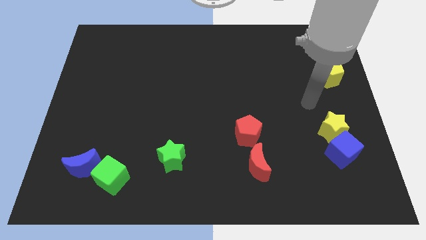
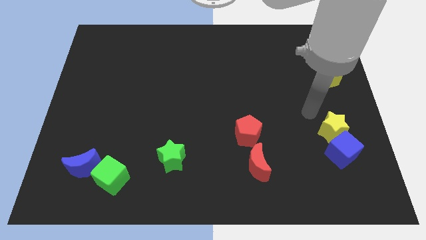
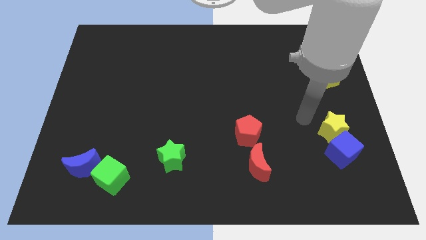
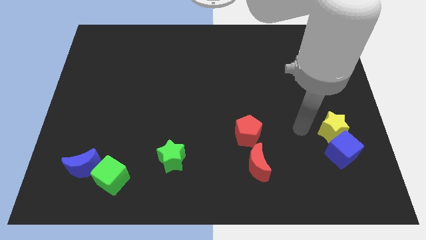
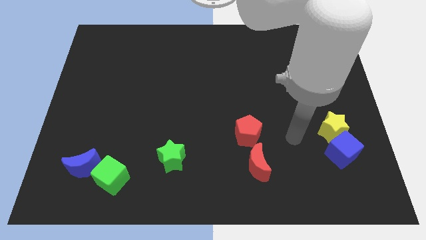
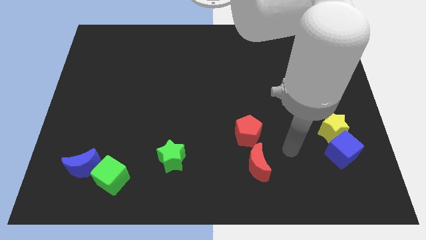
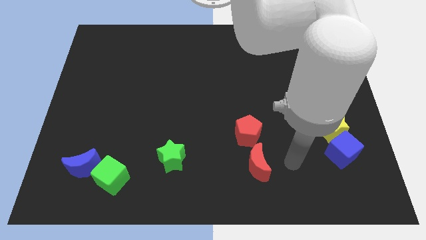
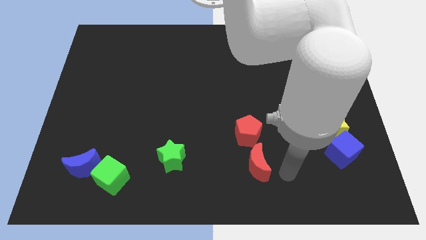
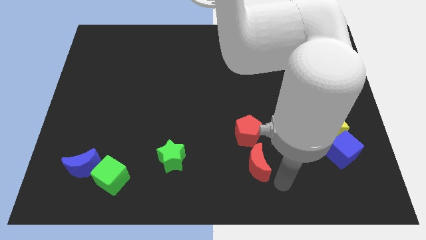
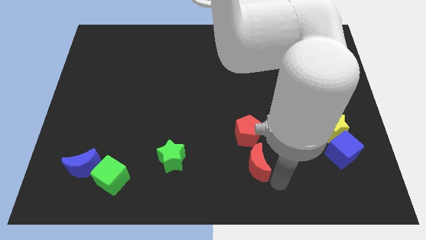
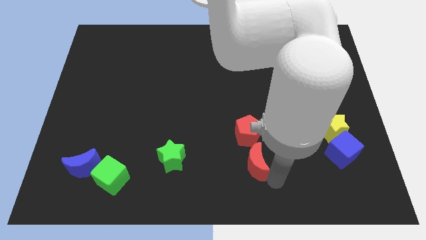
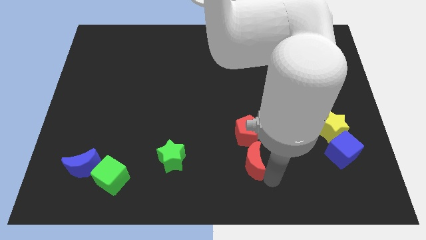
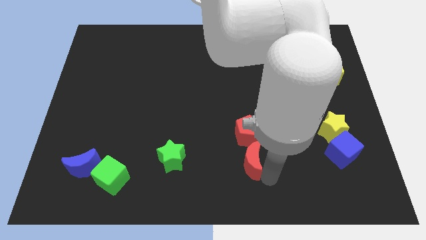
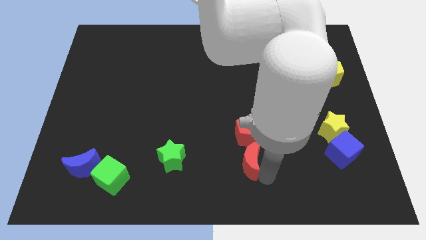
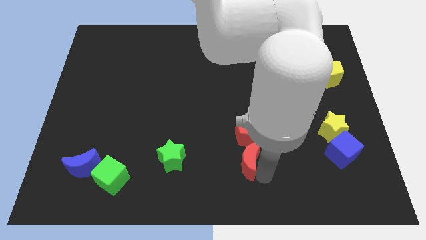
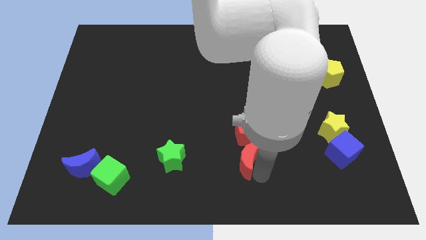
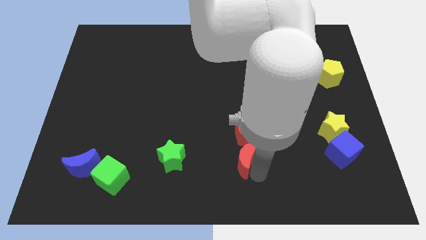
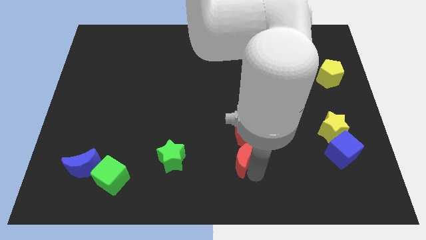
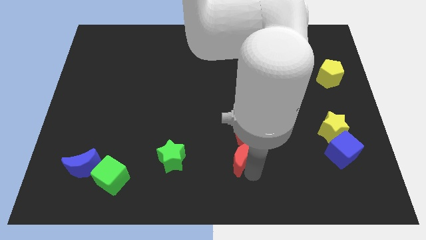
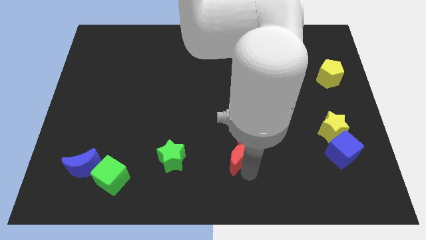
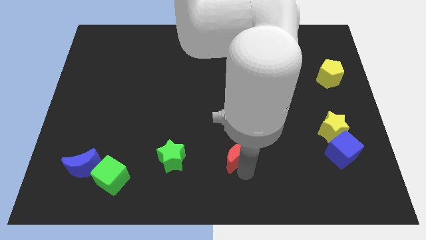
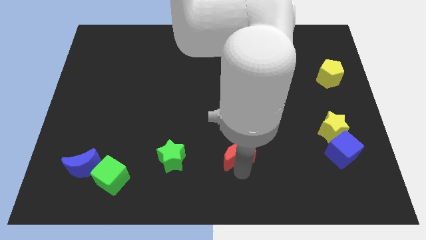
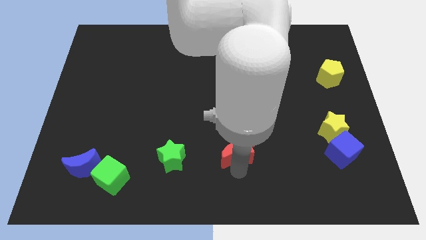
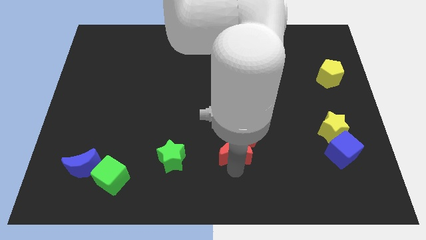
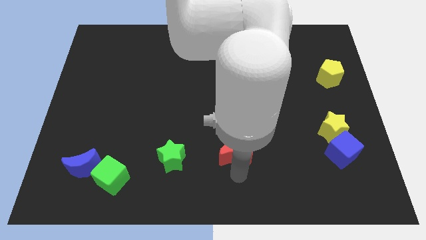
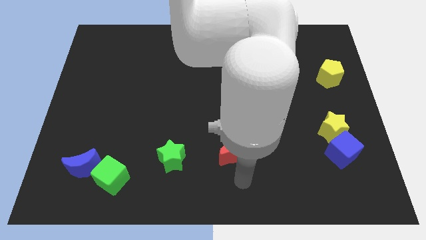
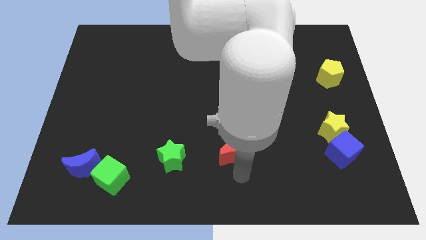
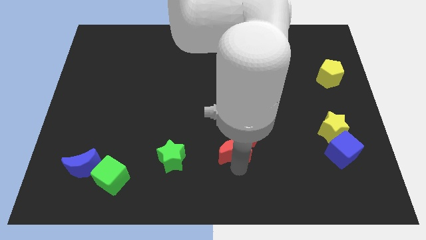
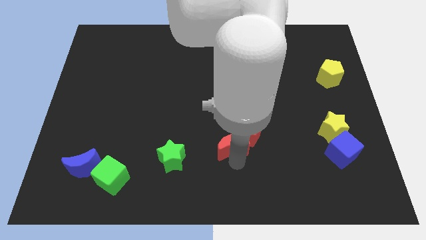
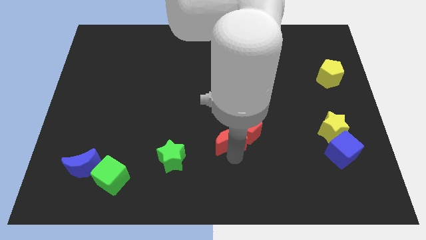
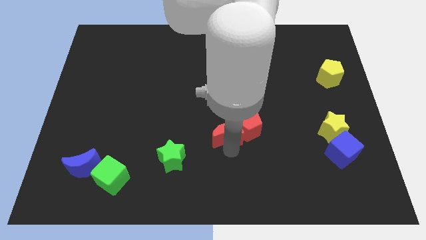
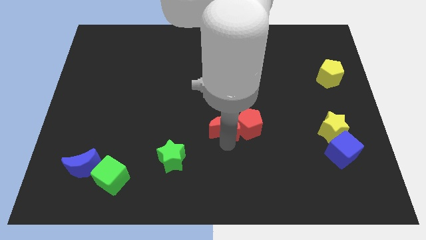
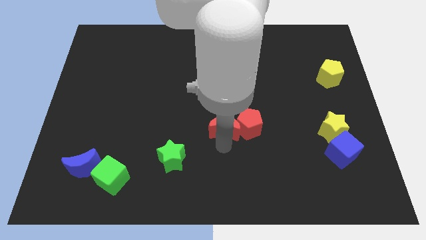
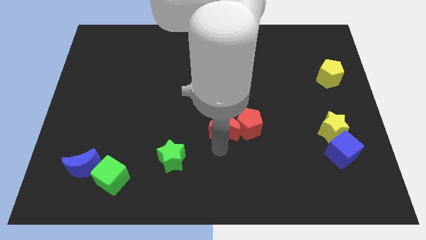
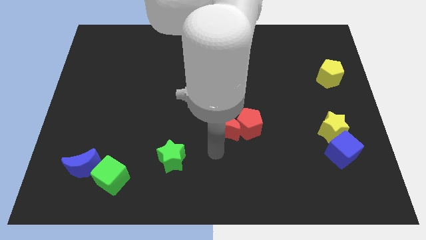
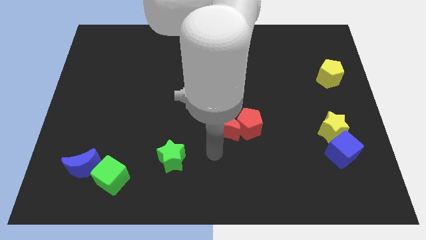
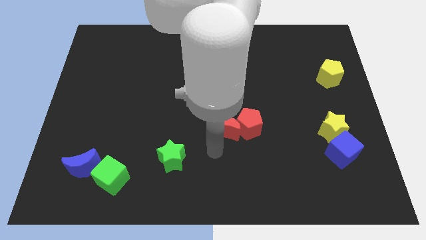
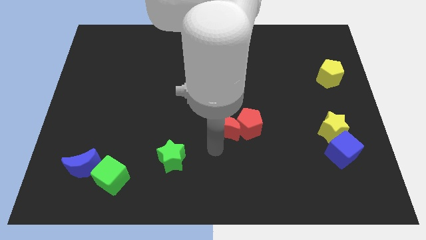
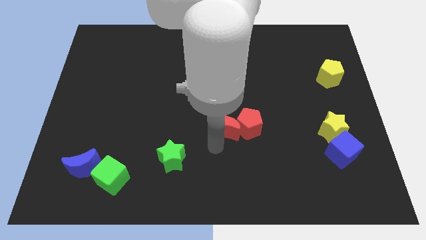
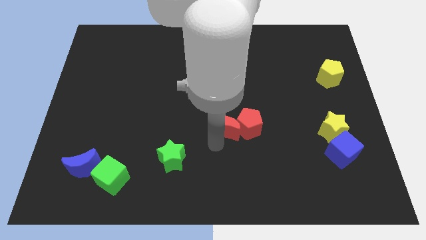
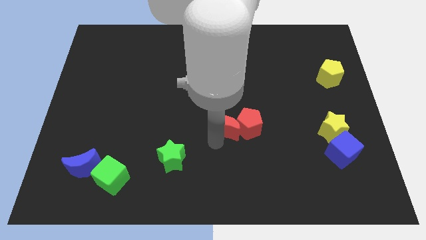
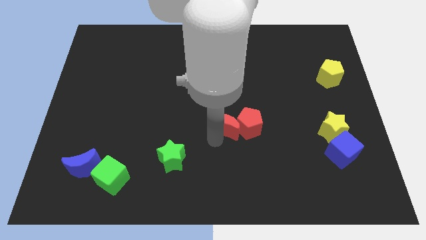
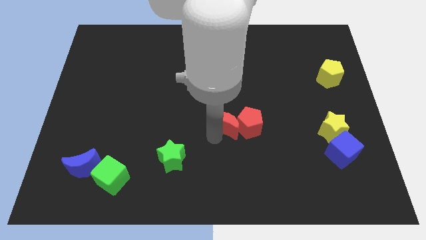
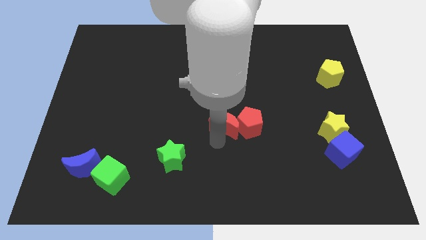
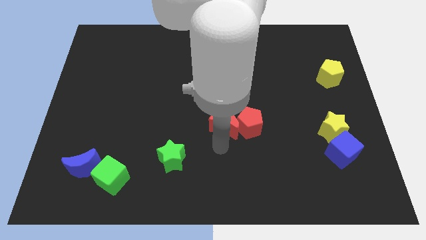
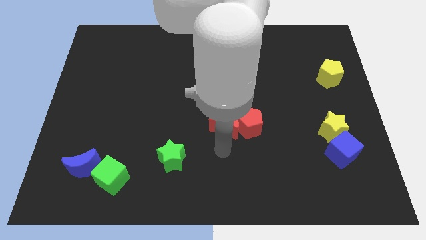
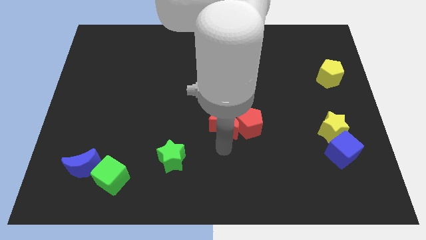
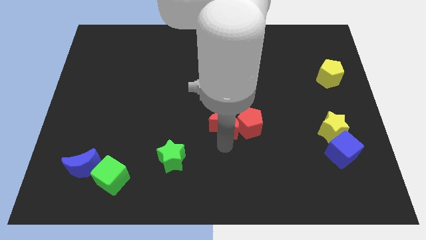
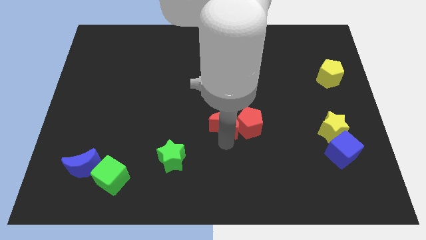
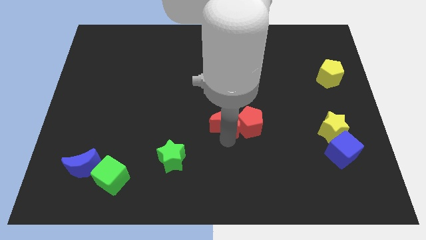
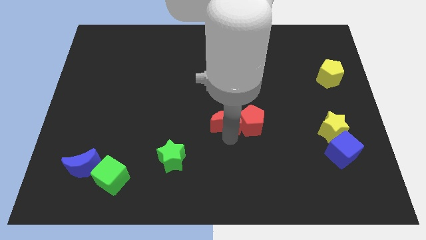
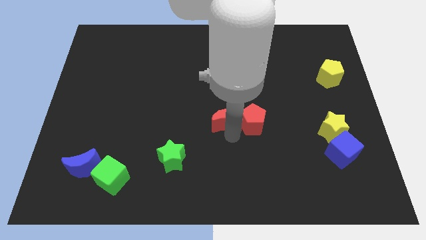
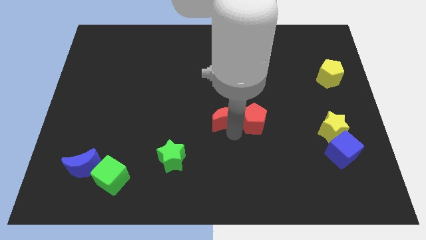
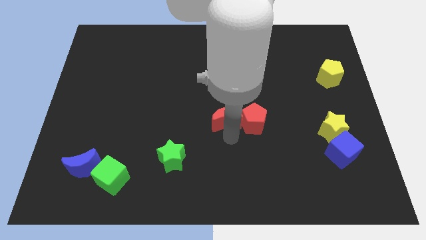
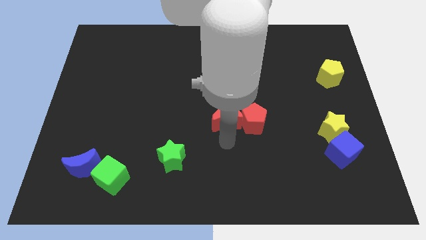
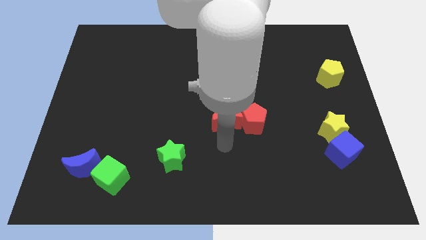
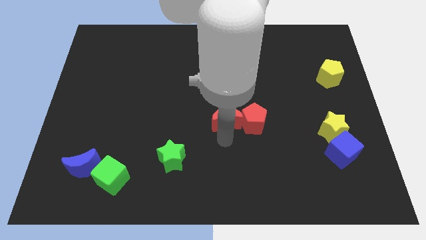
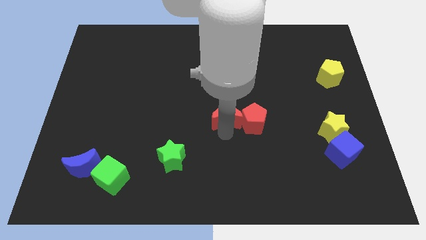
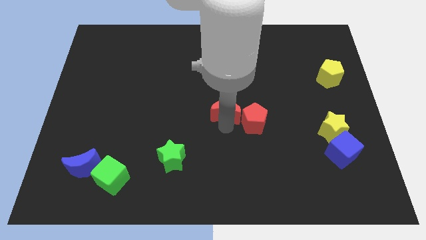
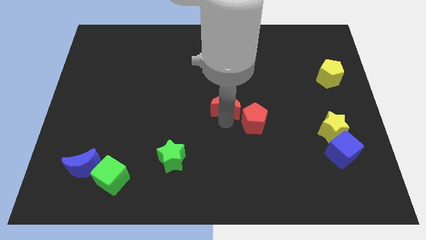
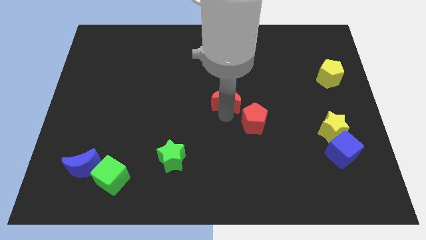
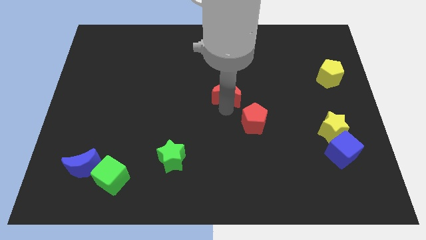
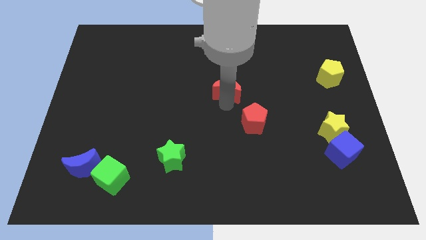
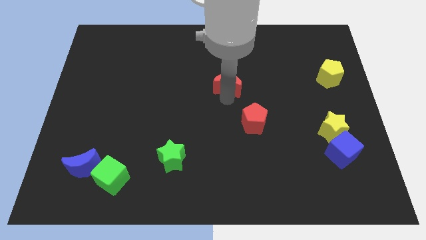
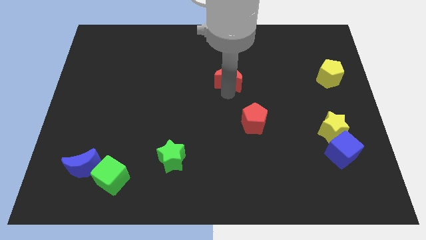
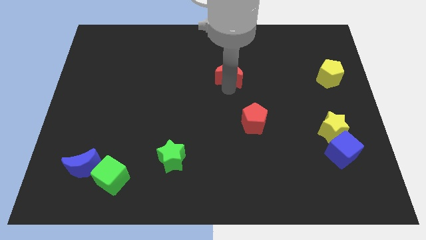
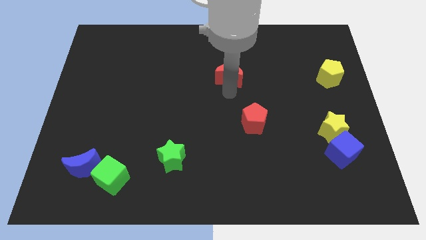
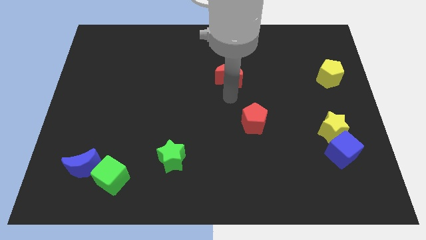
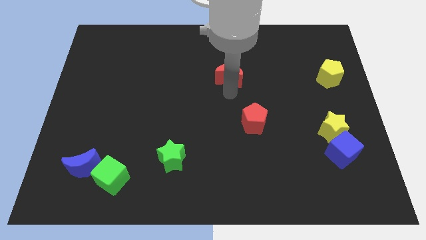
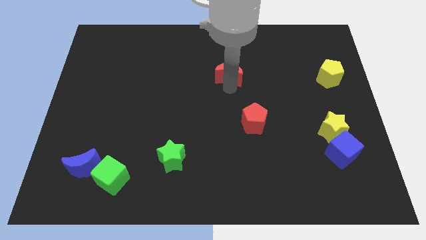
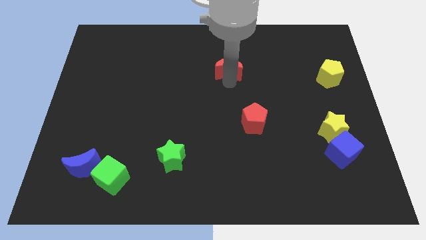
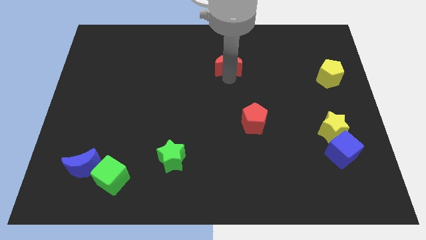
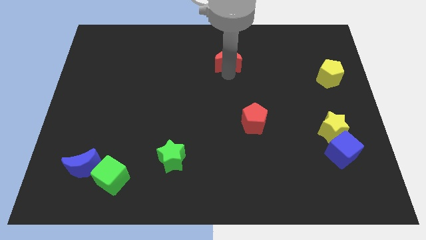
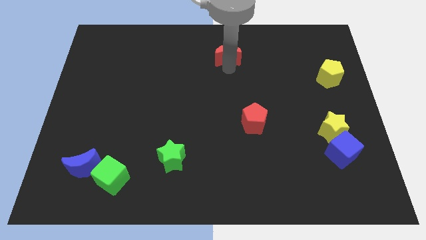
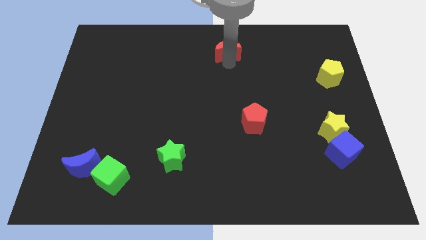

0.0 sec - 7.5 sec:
put the red moon to the towards your base
